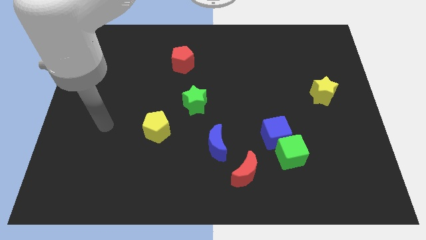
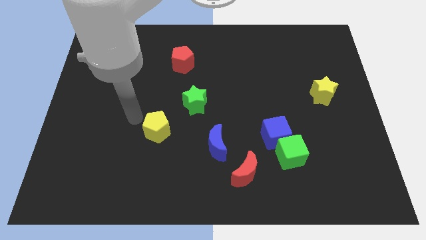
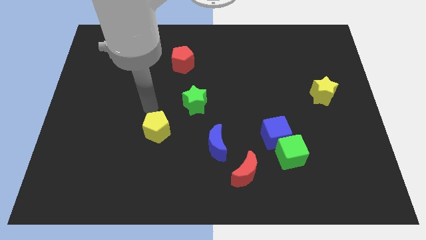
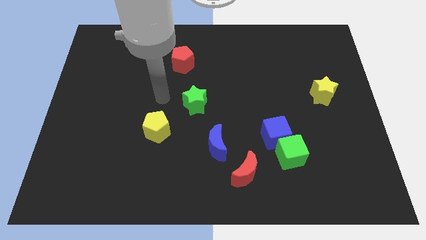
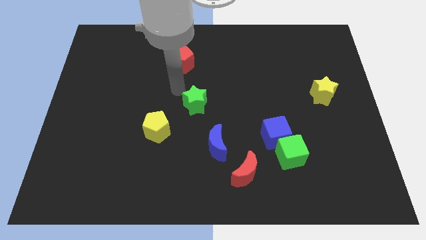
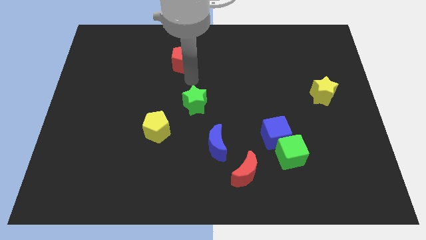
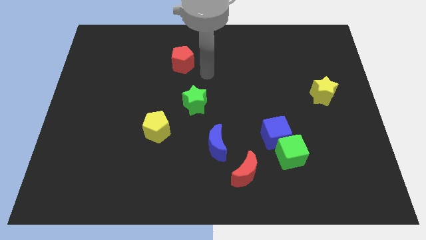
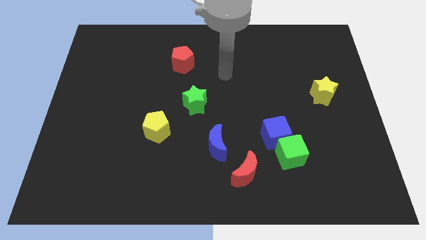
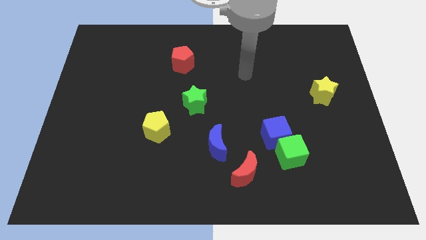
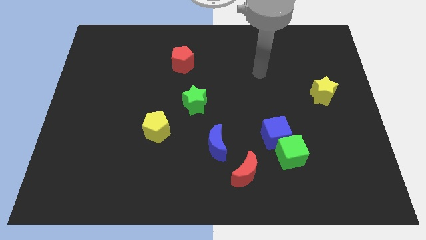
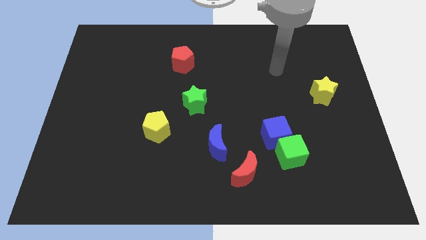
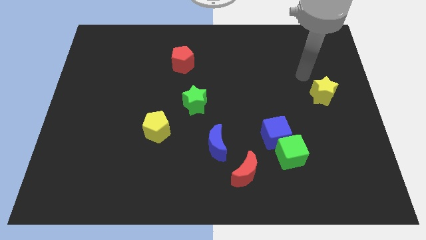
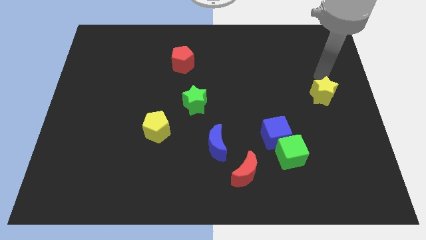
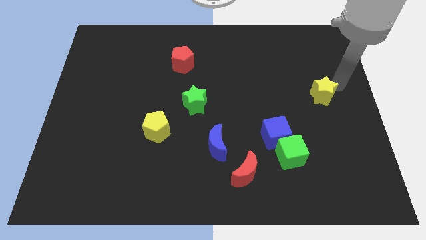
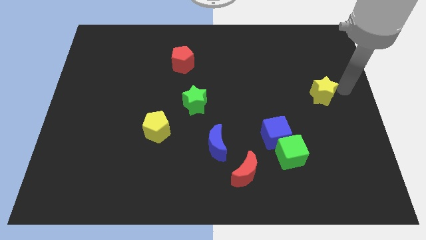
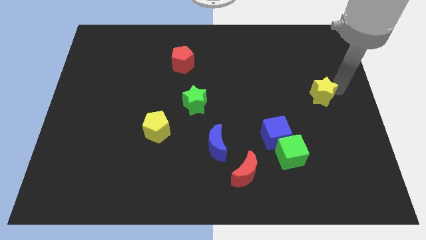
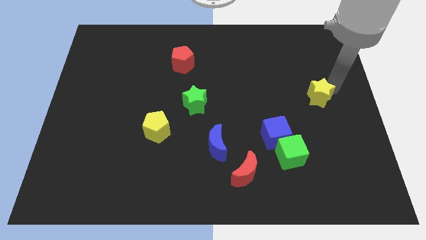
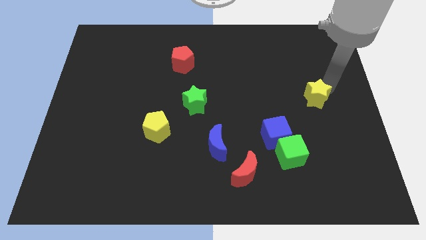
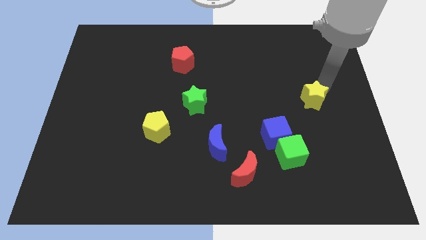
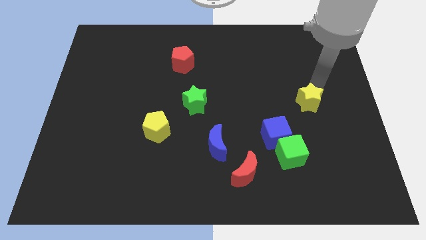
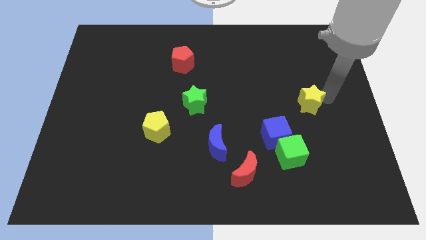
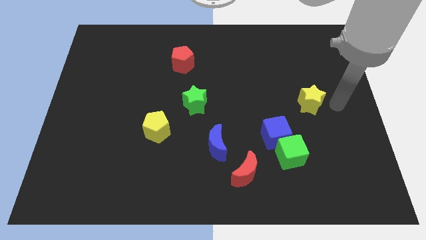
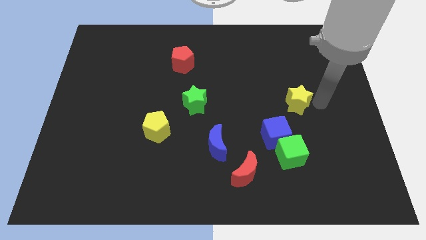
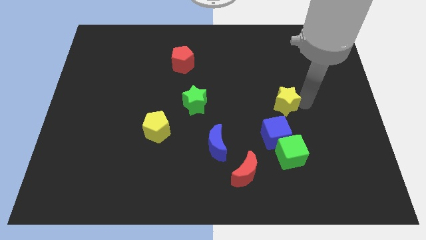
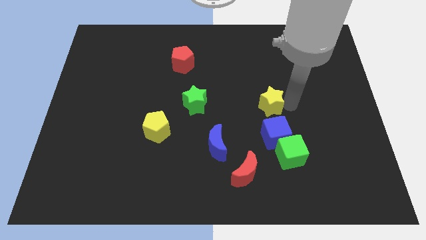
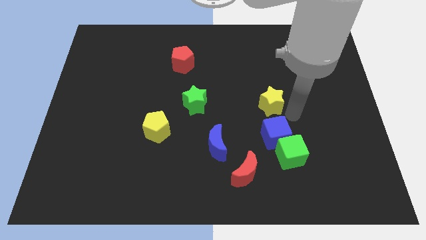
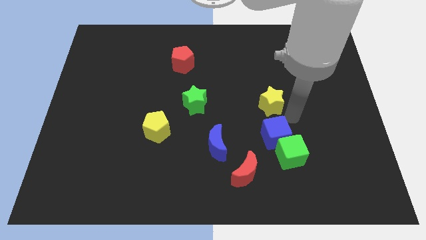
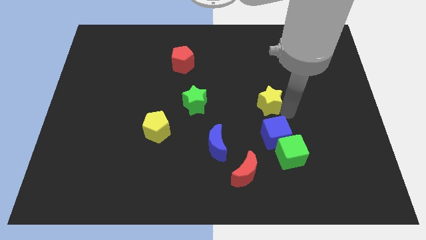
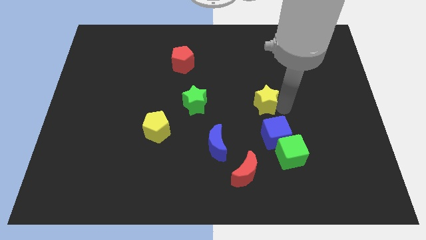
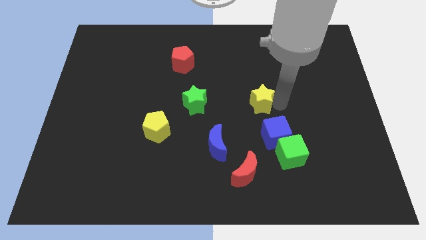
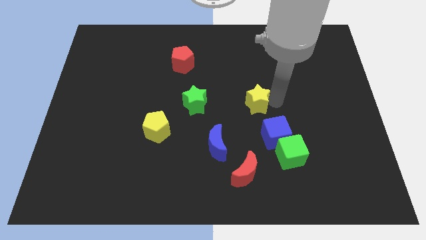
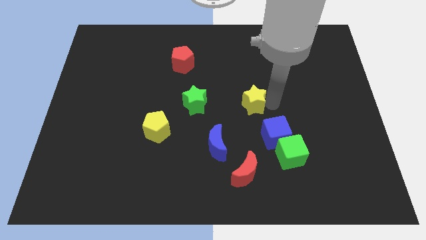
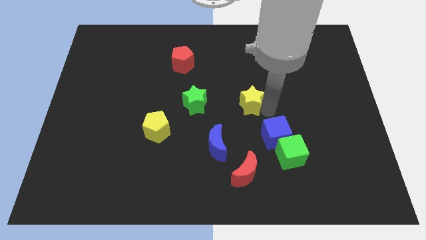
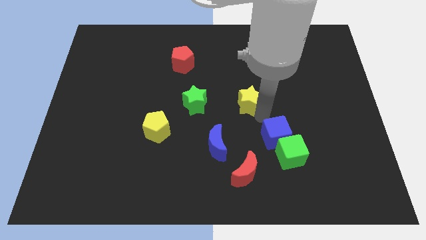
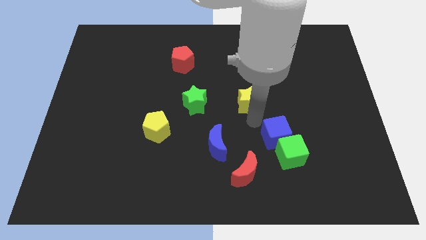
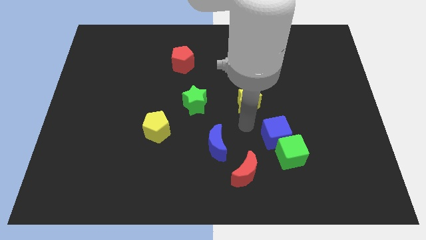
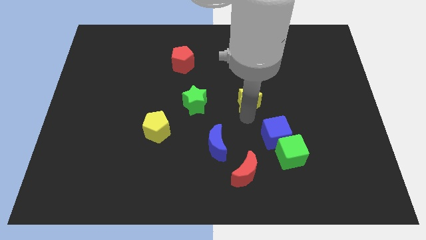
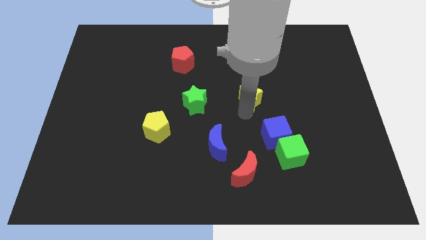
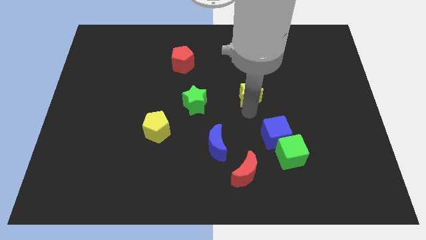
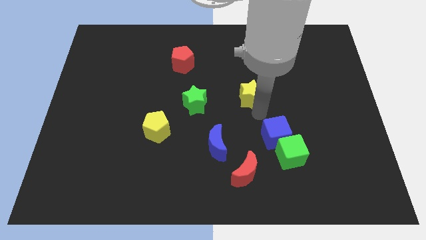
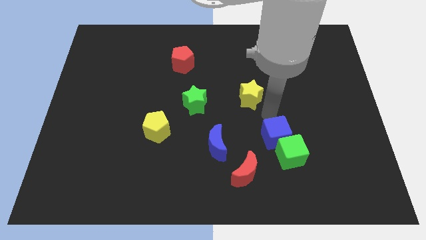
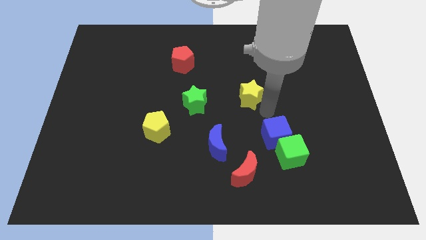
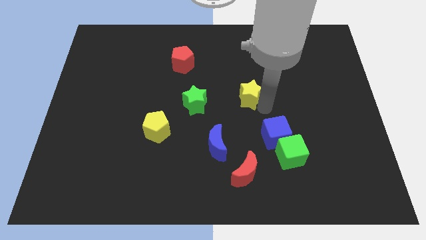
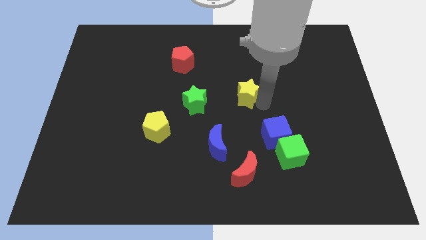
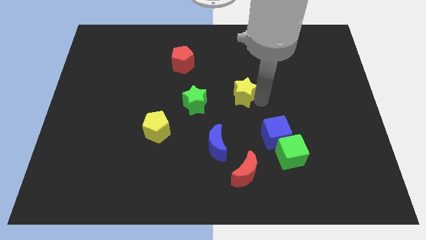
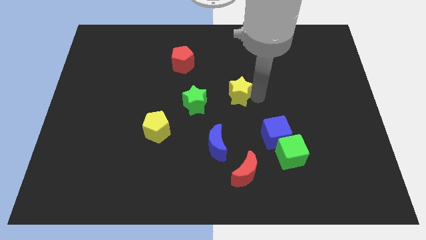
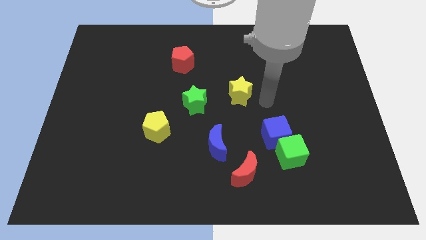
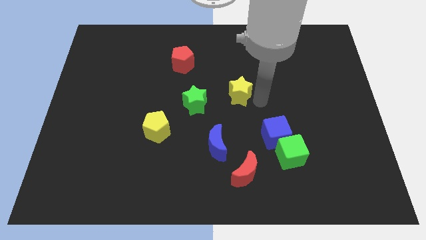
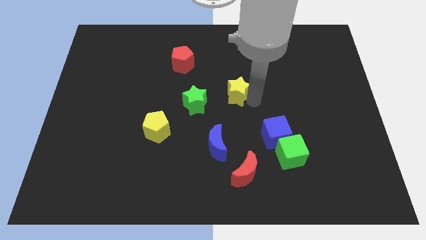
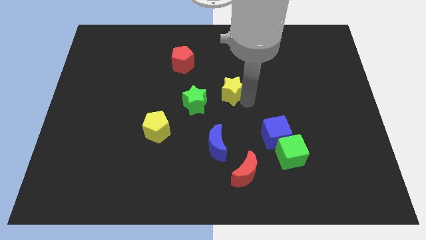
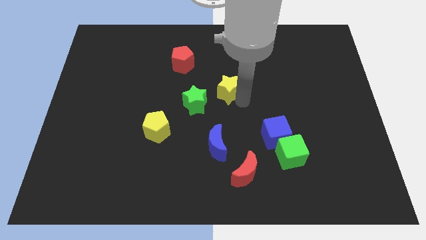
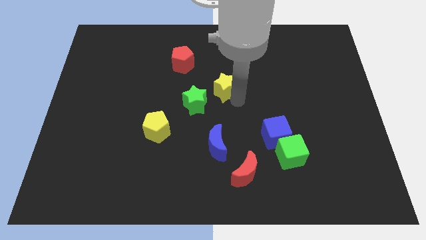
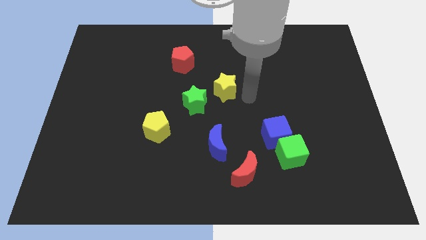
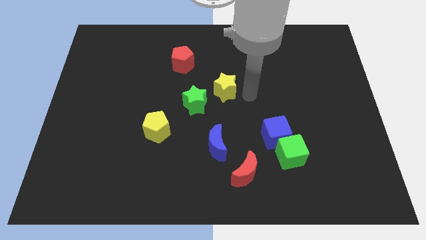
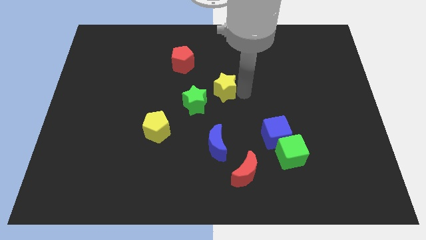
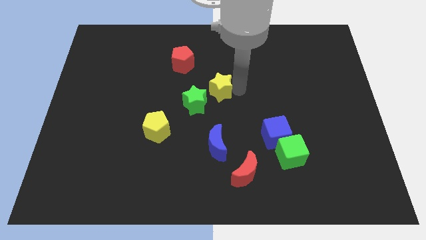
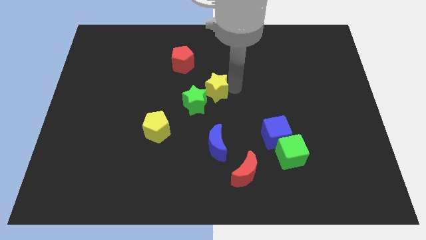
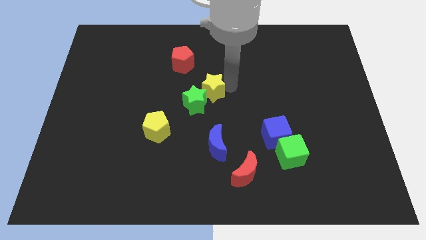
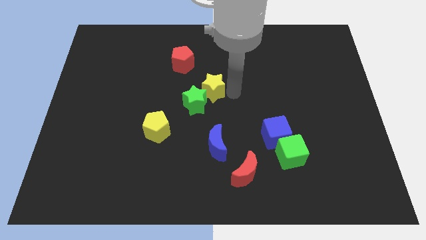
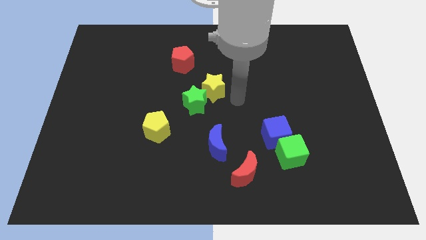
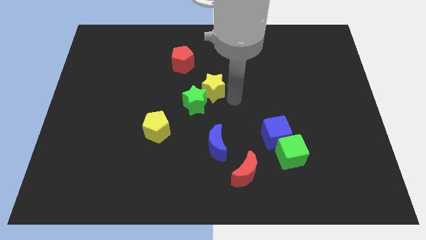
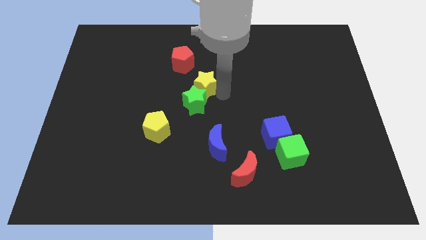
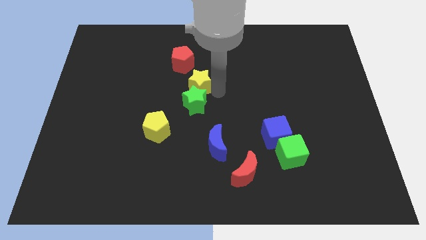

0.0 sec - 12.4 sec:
move the yellow star to the top left side of the green star

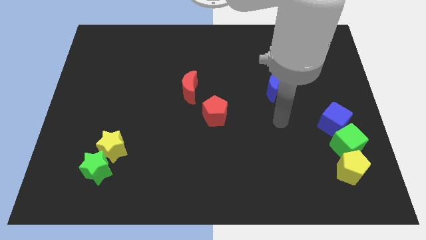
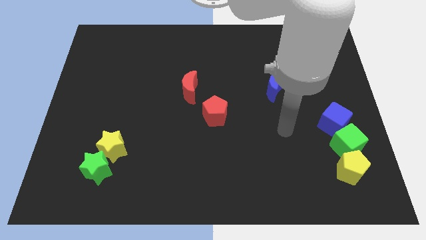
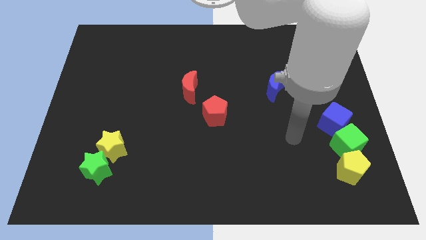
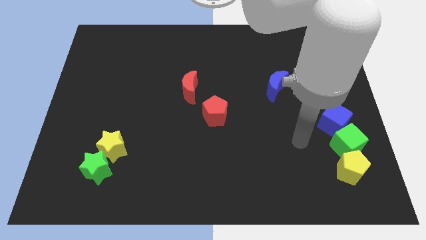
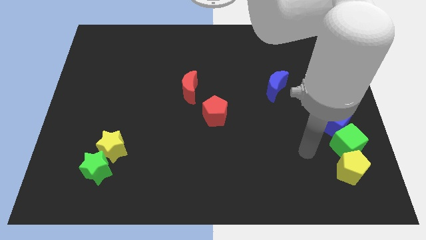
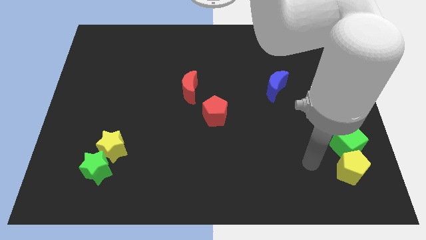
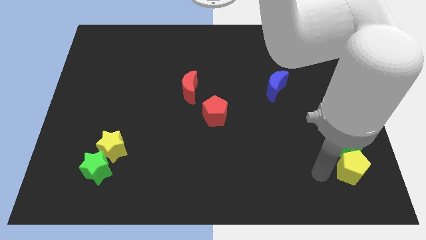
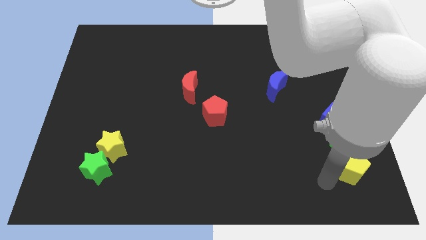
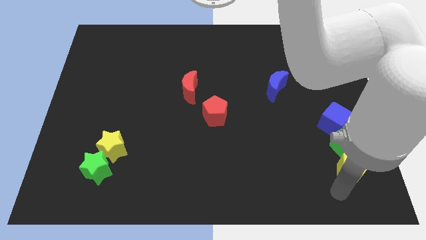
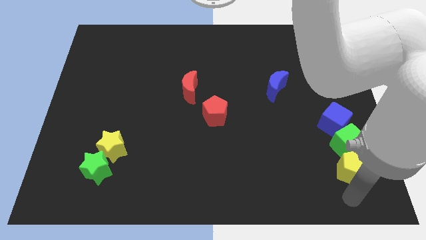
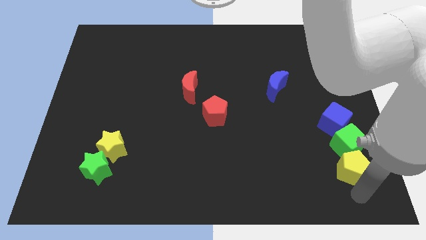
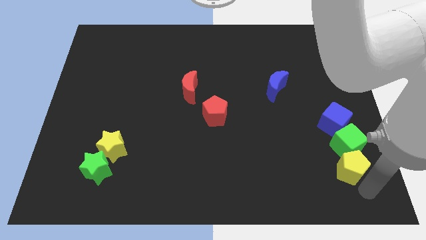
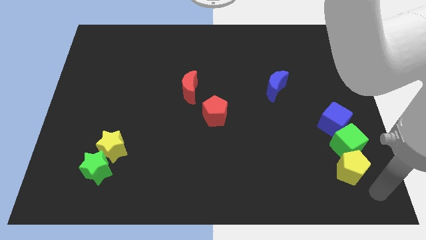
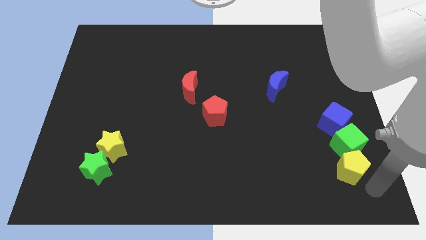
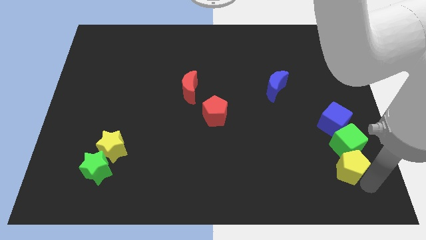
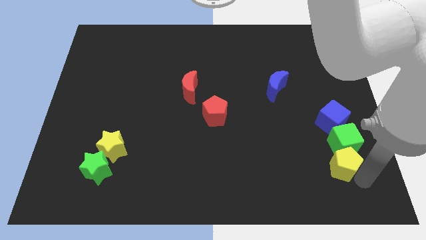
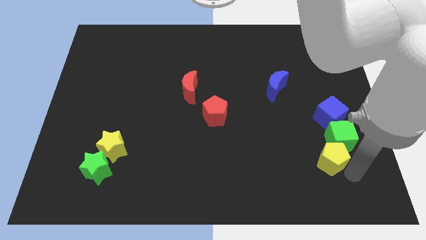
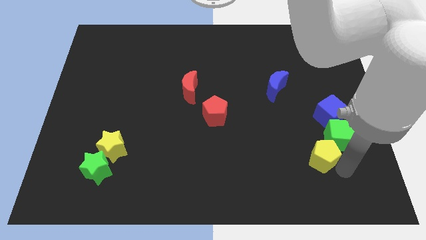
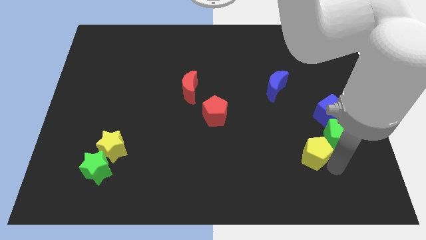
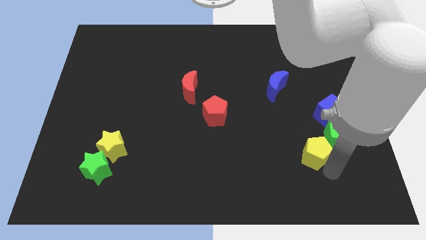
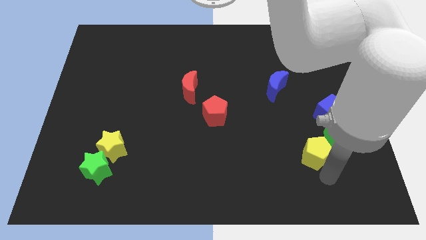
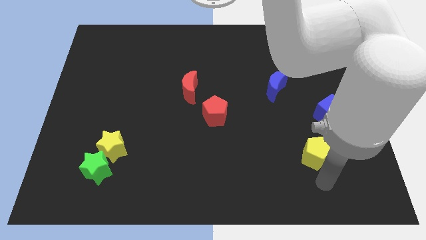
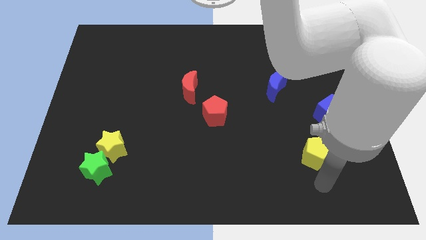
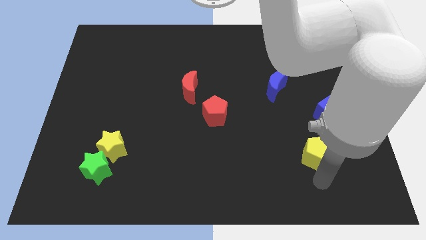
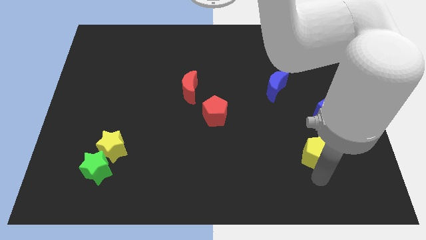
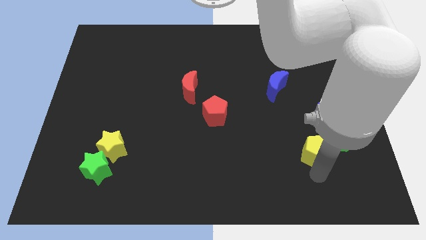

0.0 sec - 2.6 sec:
move the yellow pentagon to the bottom left of the blue cube
